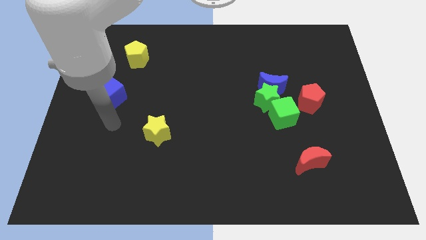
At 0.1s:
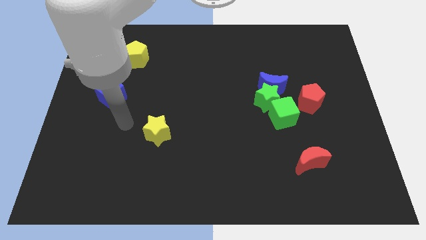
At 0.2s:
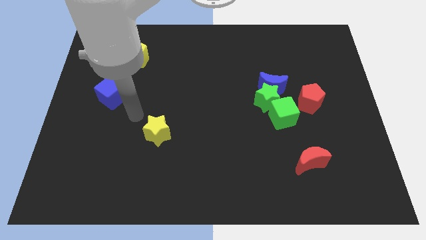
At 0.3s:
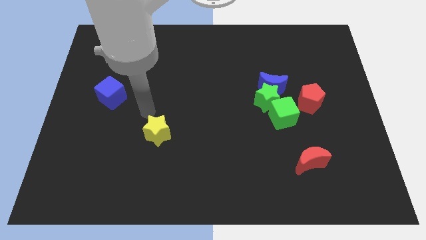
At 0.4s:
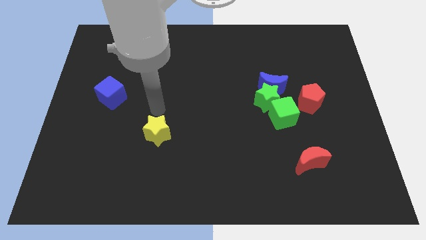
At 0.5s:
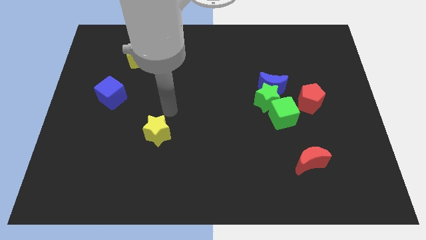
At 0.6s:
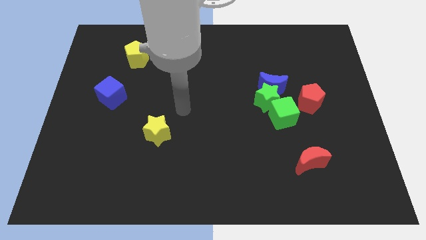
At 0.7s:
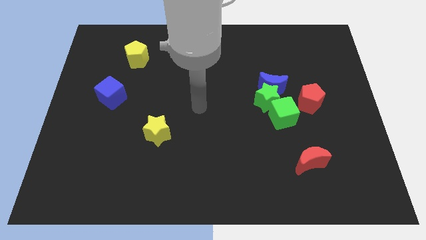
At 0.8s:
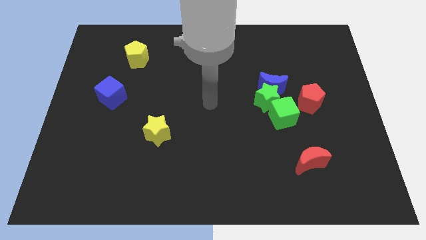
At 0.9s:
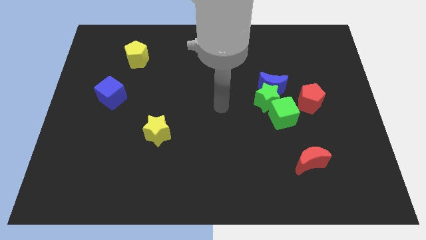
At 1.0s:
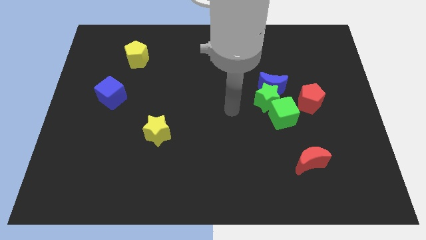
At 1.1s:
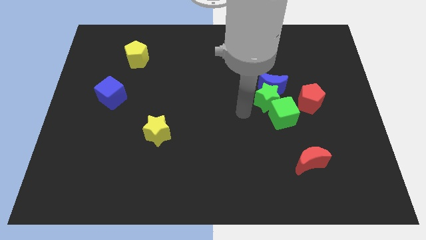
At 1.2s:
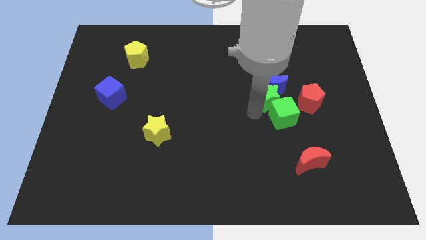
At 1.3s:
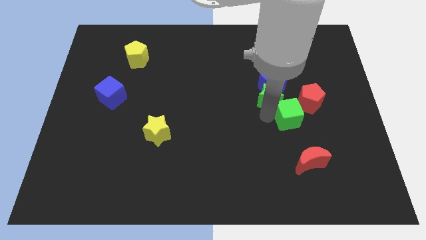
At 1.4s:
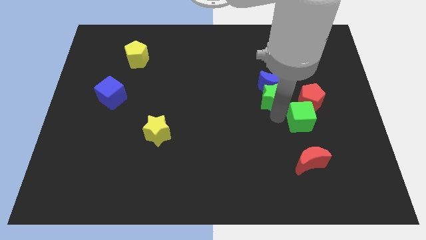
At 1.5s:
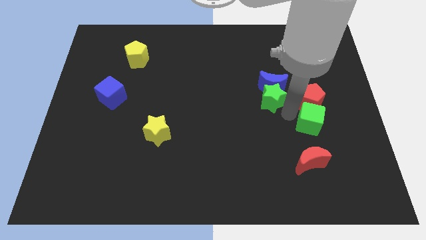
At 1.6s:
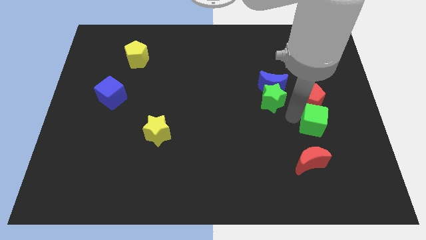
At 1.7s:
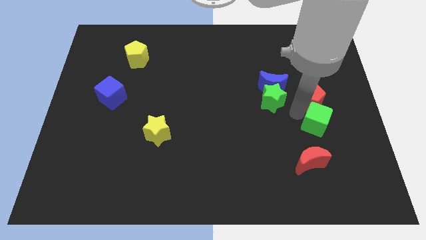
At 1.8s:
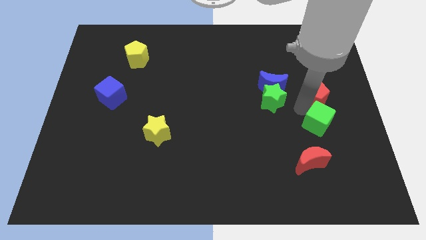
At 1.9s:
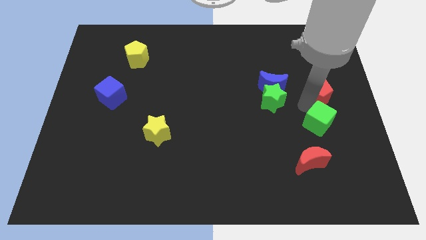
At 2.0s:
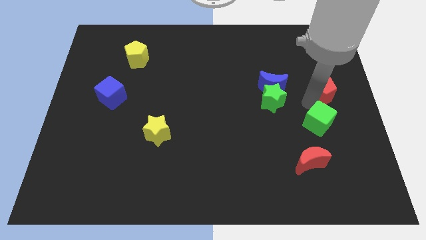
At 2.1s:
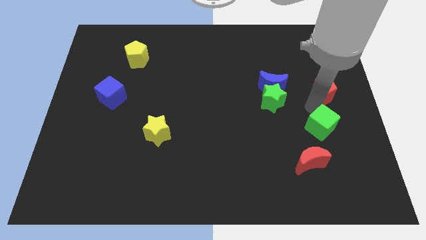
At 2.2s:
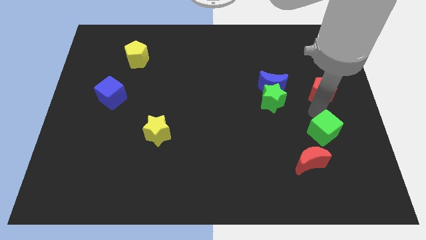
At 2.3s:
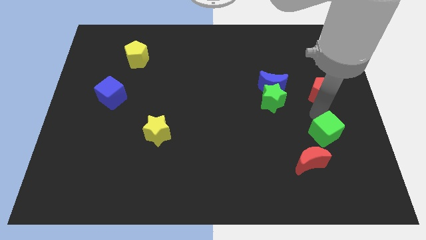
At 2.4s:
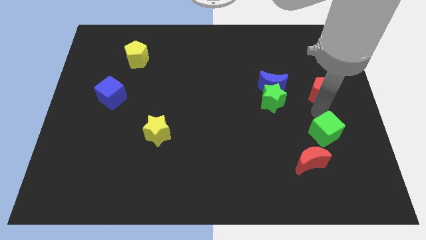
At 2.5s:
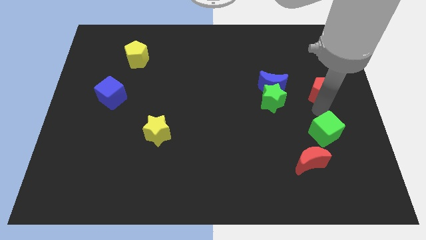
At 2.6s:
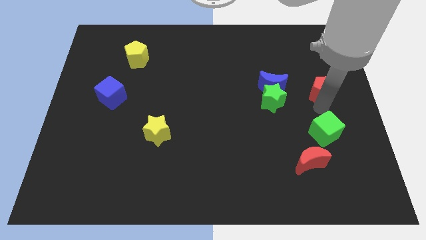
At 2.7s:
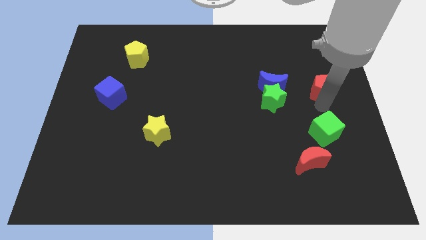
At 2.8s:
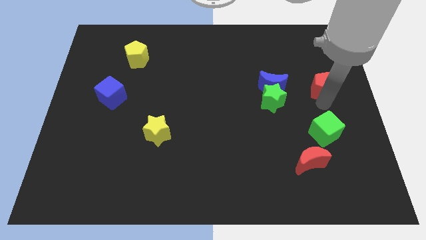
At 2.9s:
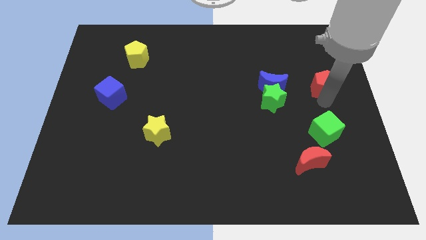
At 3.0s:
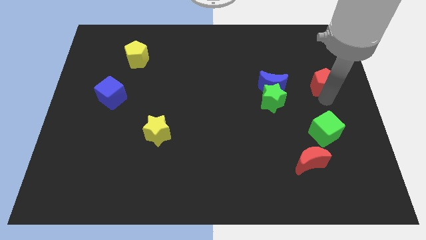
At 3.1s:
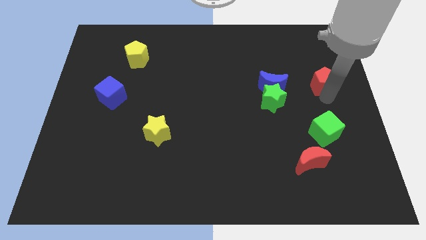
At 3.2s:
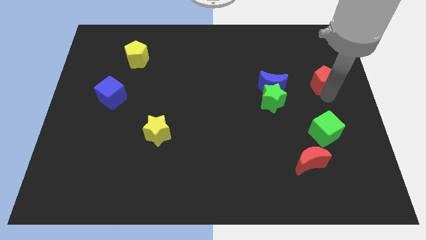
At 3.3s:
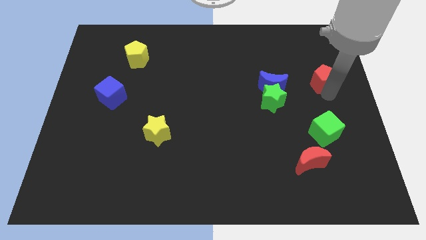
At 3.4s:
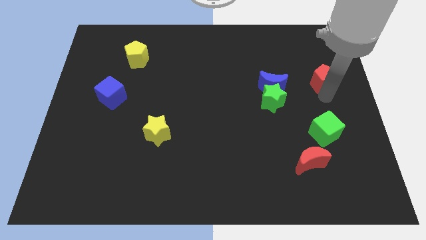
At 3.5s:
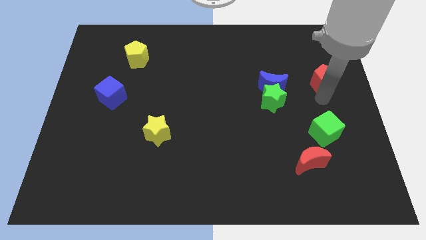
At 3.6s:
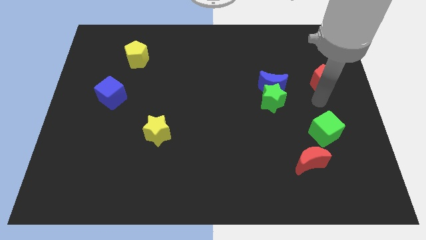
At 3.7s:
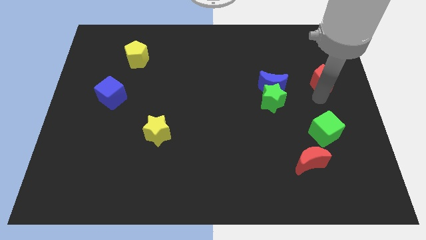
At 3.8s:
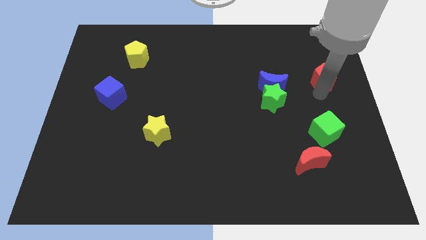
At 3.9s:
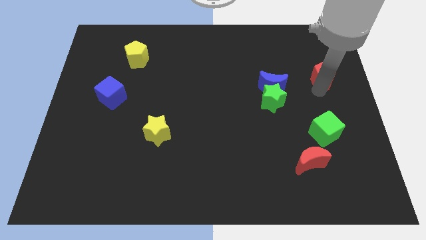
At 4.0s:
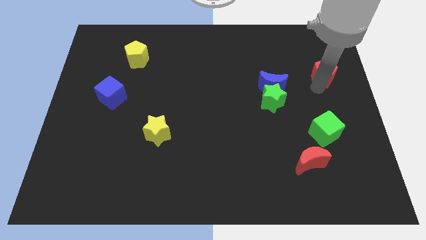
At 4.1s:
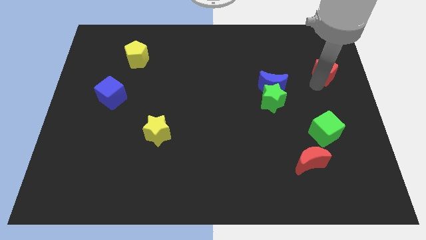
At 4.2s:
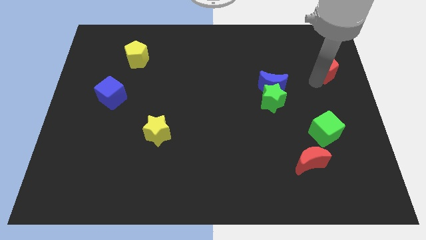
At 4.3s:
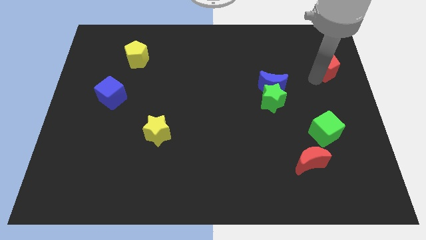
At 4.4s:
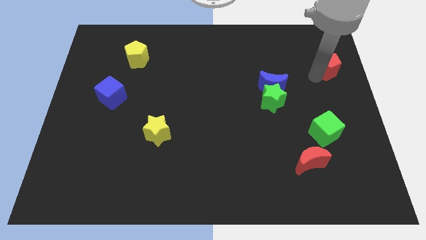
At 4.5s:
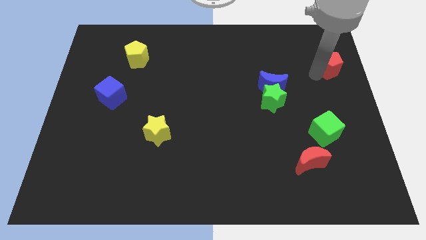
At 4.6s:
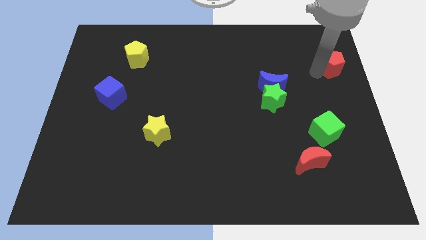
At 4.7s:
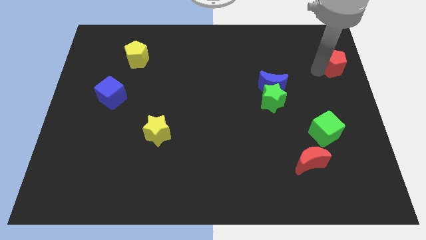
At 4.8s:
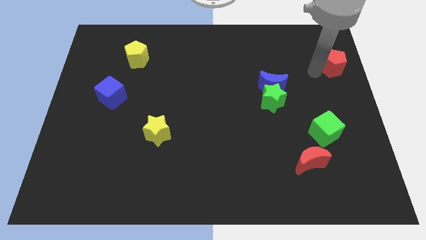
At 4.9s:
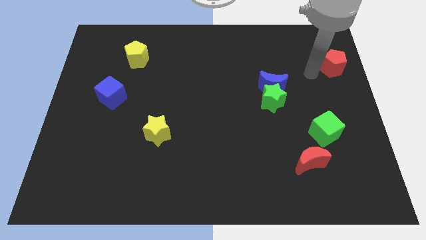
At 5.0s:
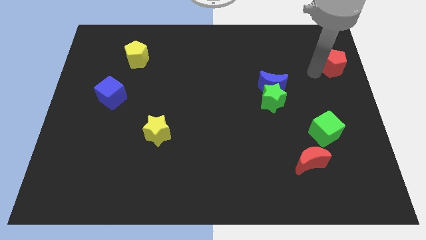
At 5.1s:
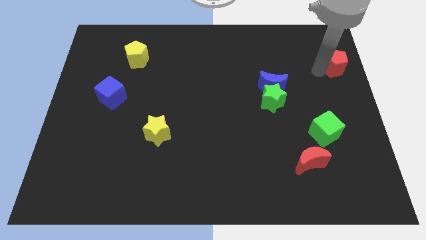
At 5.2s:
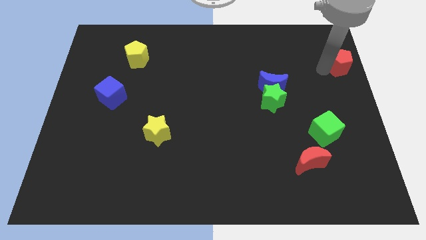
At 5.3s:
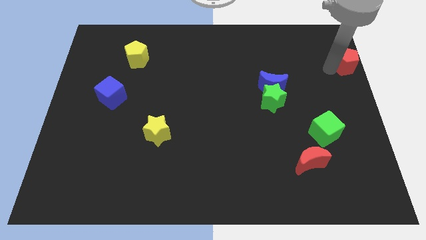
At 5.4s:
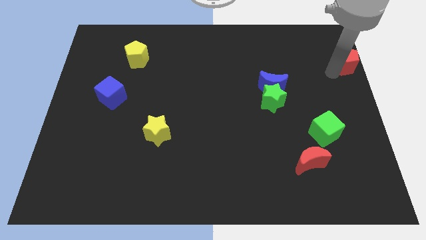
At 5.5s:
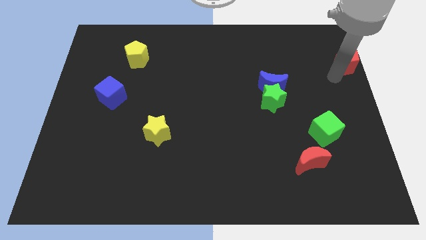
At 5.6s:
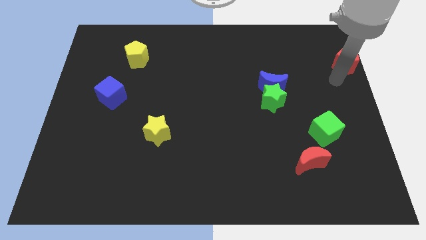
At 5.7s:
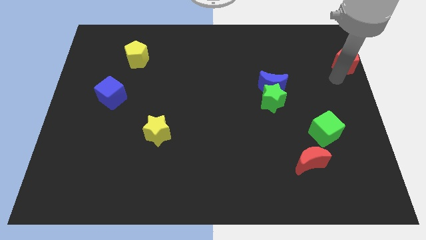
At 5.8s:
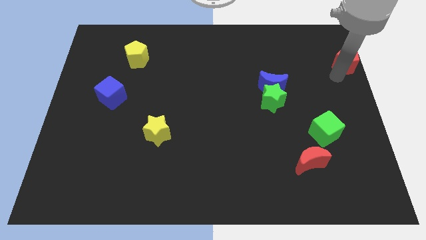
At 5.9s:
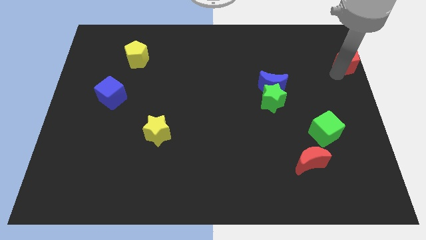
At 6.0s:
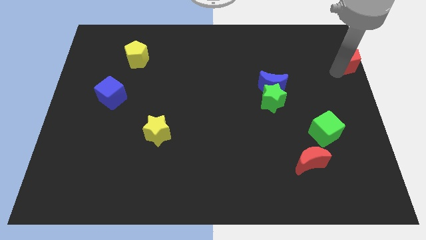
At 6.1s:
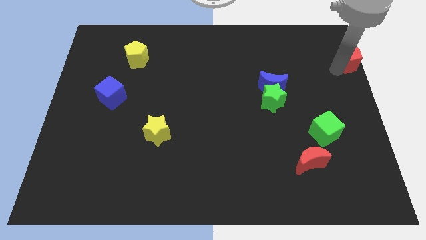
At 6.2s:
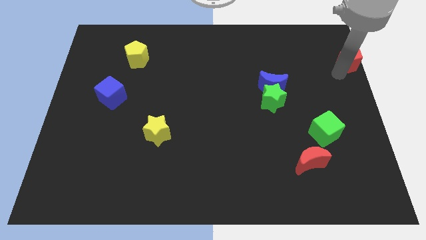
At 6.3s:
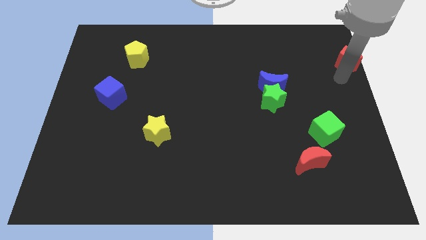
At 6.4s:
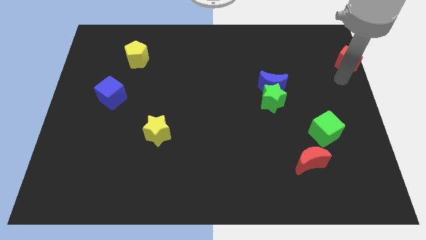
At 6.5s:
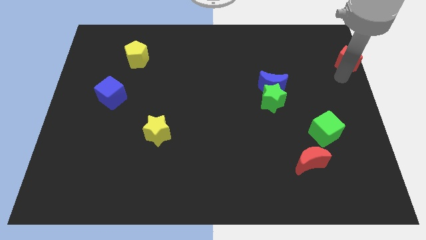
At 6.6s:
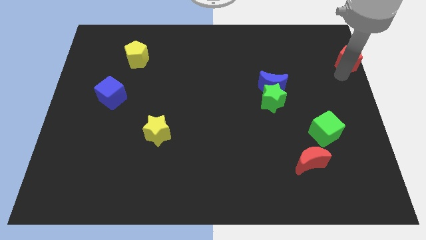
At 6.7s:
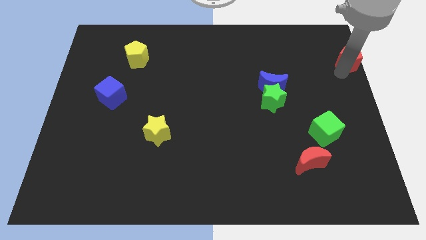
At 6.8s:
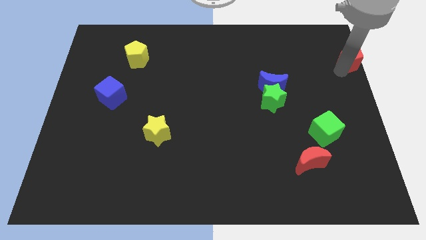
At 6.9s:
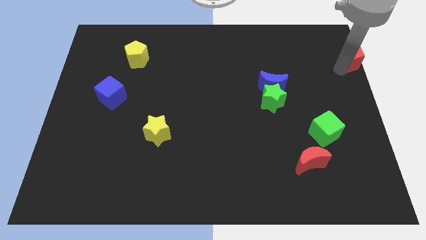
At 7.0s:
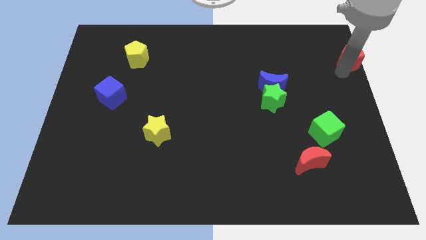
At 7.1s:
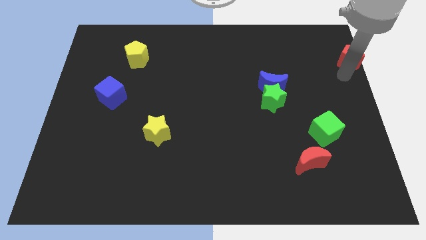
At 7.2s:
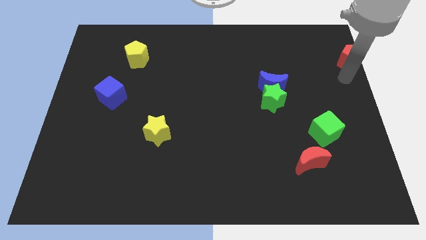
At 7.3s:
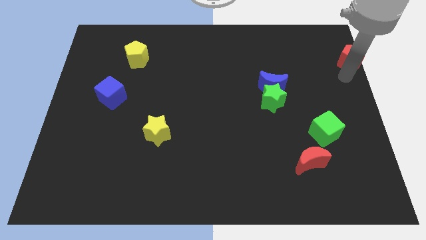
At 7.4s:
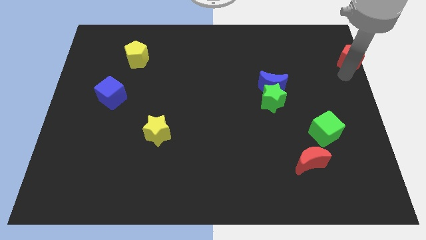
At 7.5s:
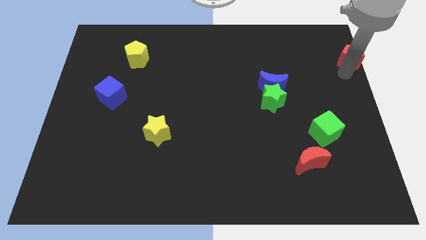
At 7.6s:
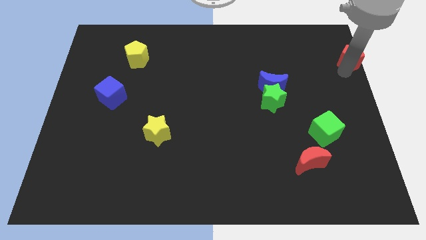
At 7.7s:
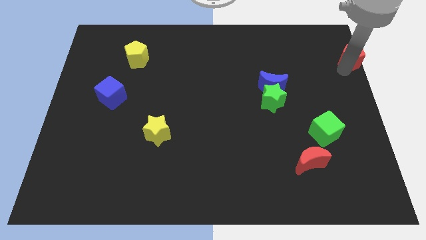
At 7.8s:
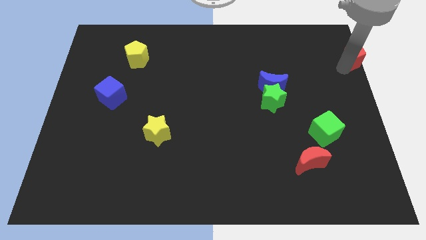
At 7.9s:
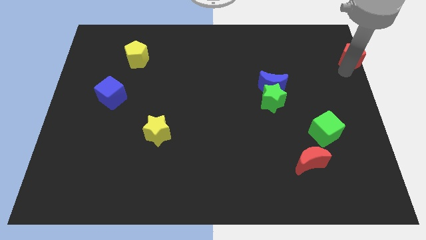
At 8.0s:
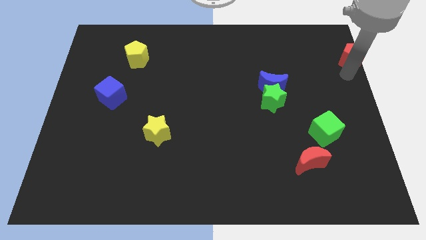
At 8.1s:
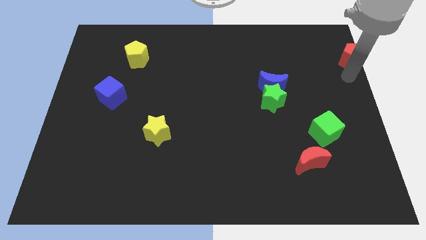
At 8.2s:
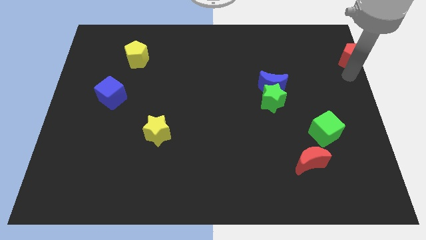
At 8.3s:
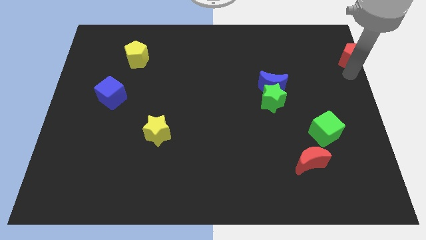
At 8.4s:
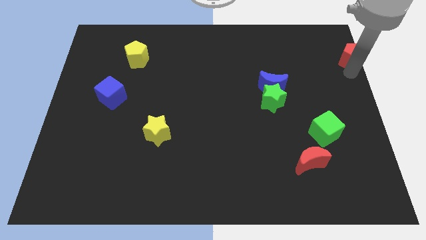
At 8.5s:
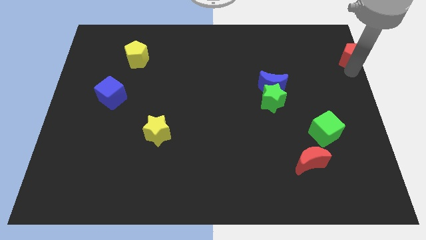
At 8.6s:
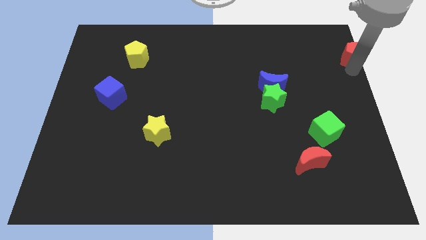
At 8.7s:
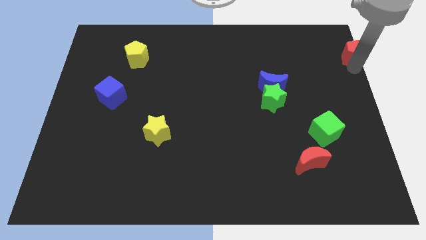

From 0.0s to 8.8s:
slide the red pentagon to the upper right corner
